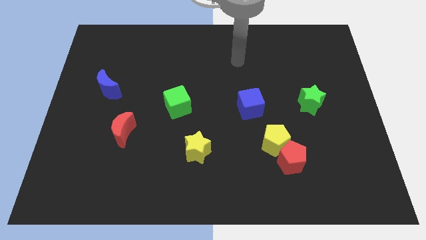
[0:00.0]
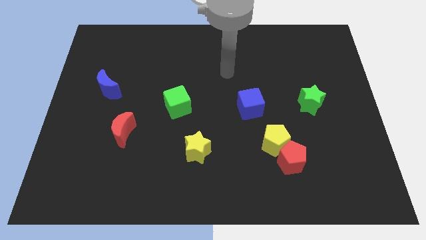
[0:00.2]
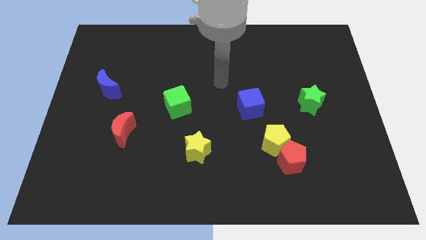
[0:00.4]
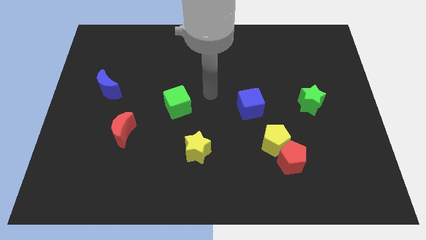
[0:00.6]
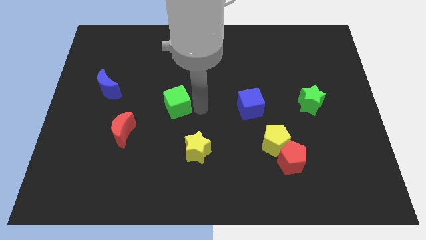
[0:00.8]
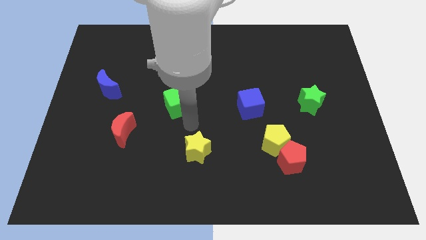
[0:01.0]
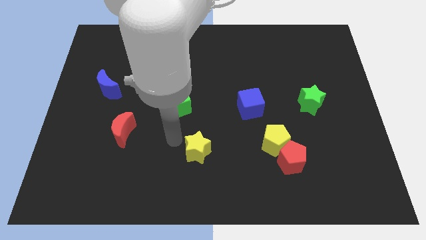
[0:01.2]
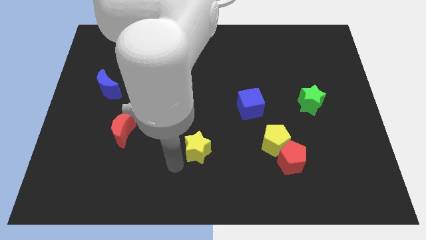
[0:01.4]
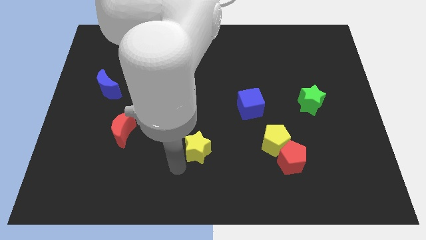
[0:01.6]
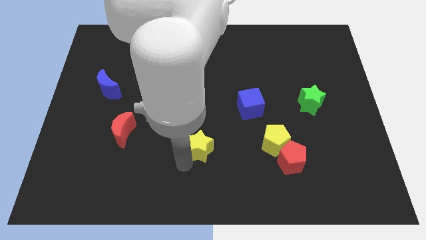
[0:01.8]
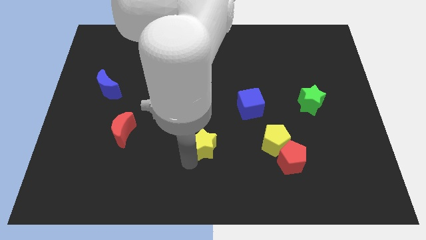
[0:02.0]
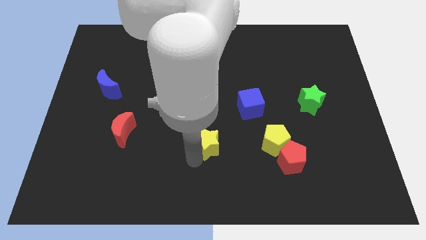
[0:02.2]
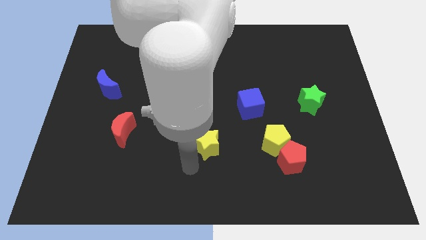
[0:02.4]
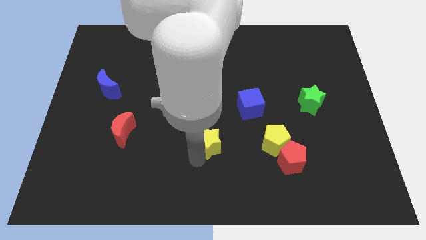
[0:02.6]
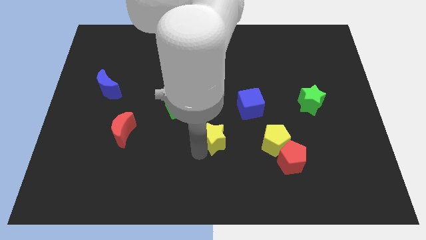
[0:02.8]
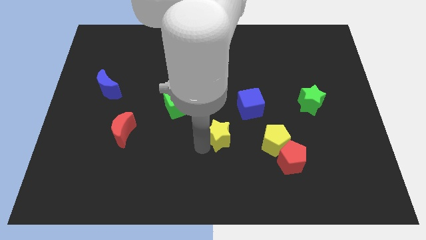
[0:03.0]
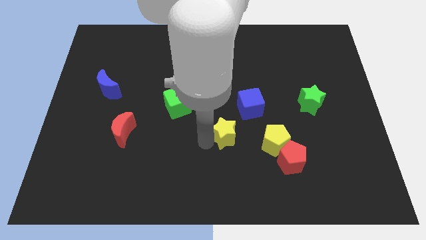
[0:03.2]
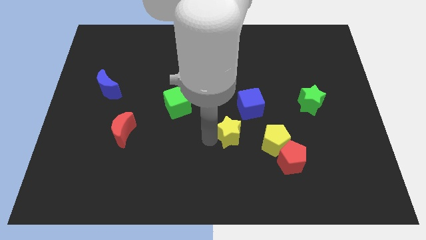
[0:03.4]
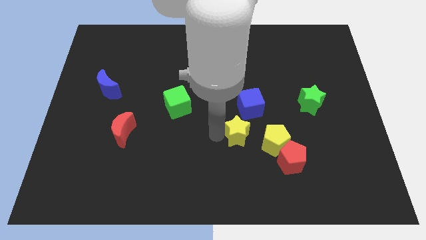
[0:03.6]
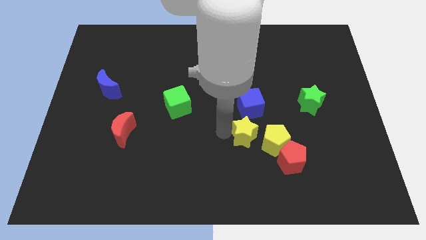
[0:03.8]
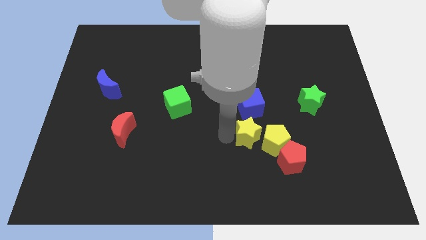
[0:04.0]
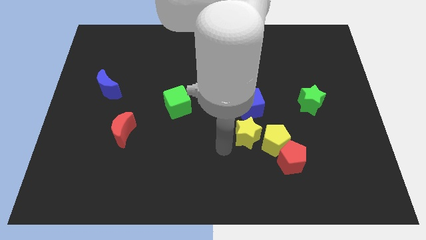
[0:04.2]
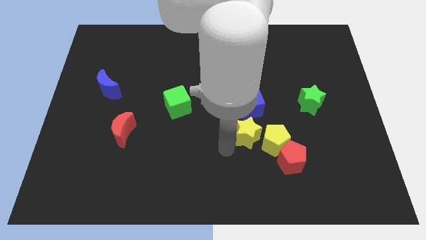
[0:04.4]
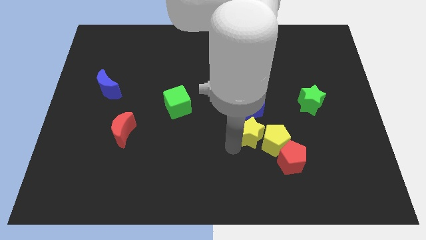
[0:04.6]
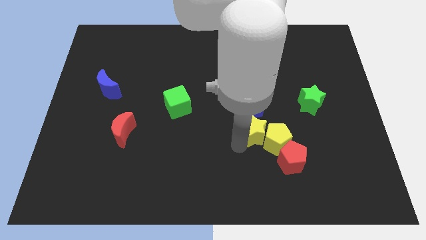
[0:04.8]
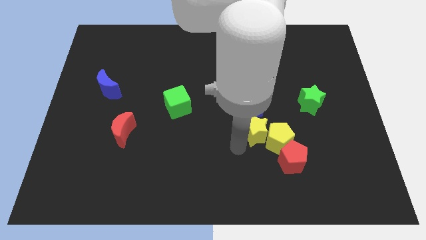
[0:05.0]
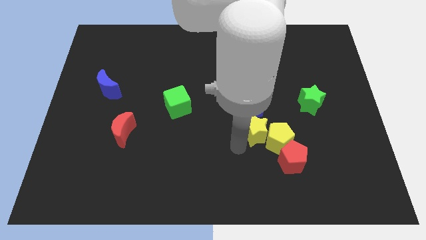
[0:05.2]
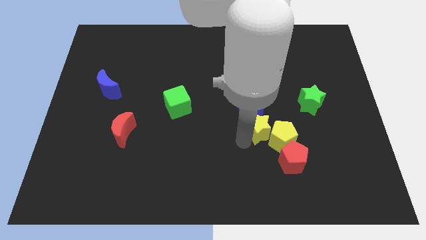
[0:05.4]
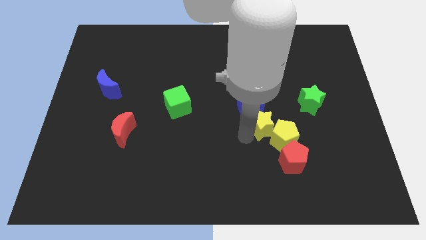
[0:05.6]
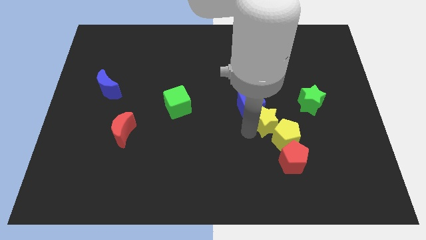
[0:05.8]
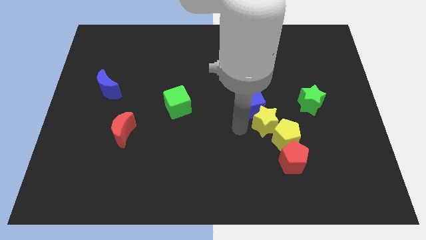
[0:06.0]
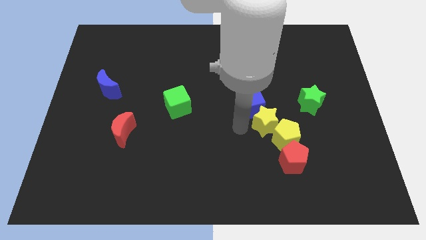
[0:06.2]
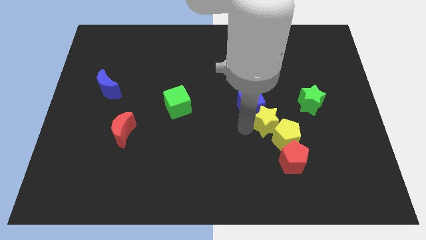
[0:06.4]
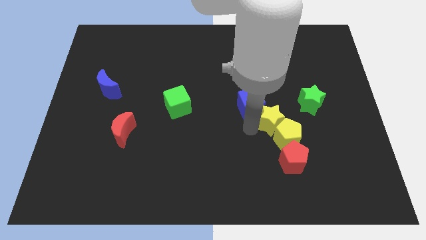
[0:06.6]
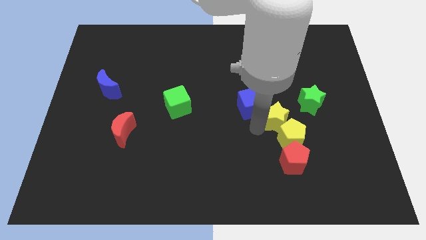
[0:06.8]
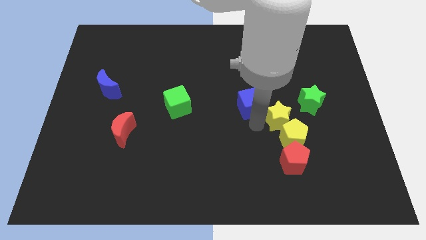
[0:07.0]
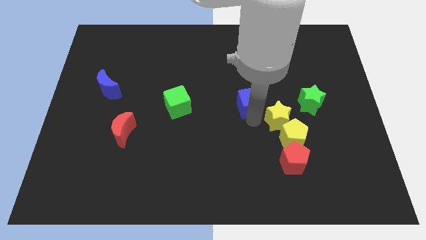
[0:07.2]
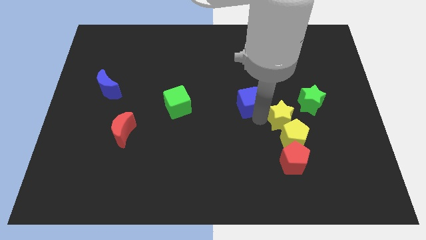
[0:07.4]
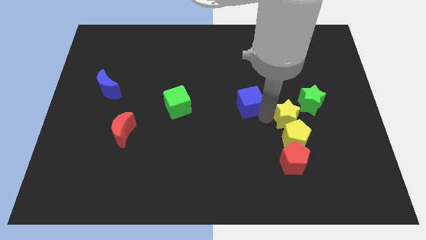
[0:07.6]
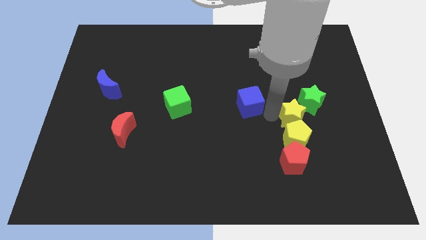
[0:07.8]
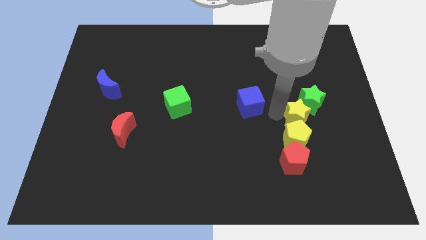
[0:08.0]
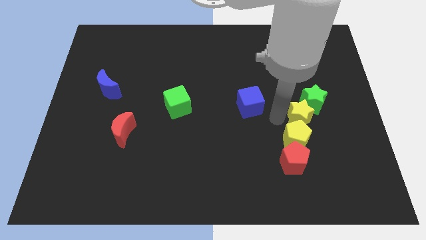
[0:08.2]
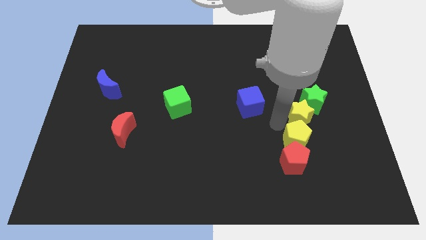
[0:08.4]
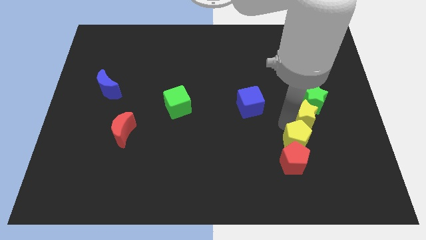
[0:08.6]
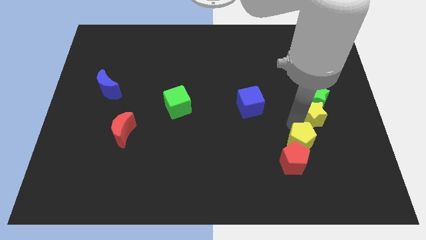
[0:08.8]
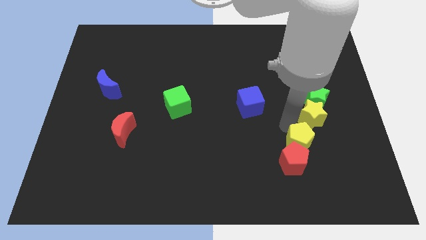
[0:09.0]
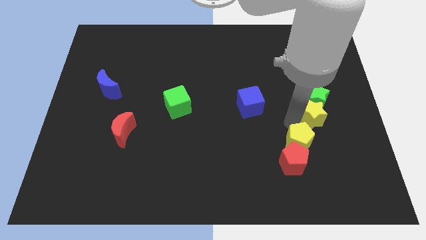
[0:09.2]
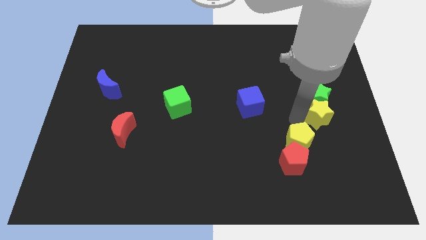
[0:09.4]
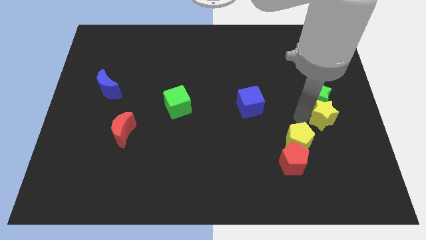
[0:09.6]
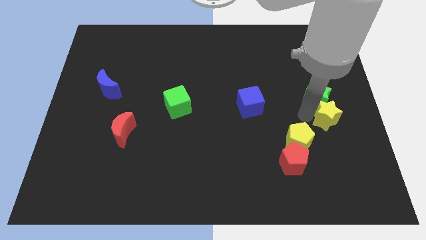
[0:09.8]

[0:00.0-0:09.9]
put the yellow star to the center right

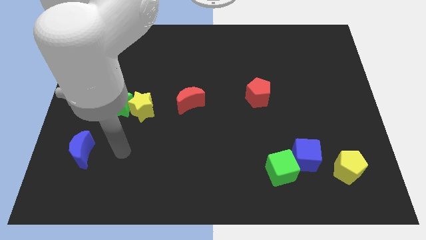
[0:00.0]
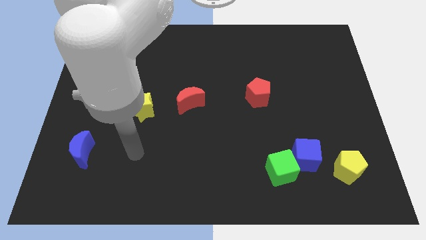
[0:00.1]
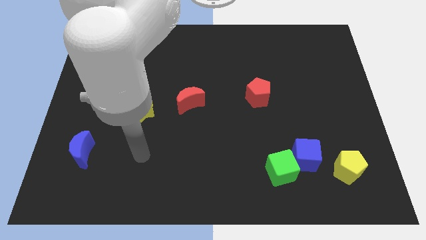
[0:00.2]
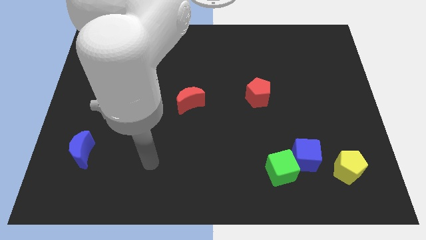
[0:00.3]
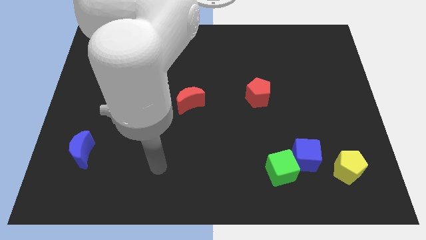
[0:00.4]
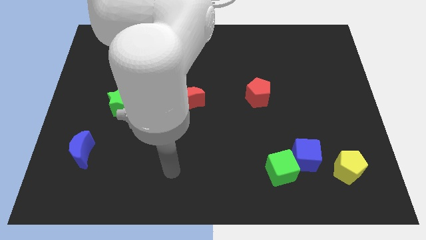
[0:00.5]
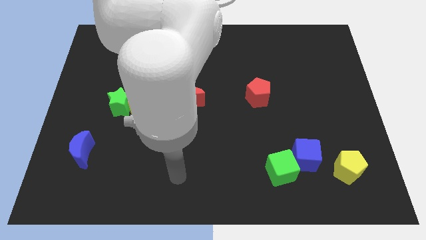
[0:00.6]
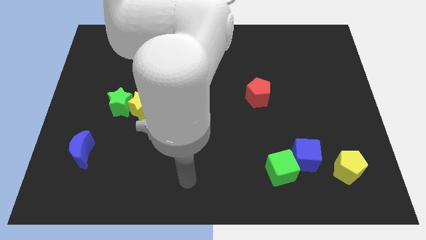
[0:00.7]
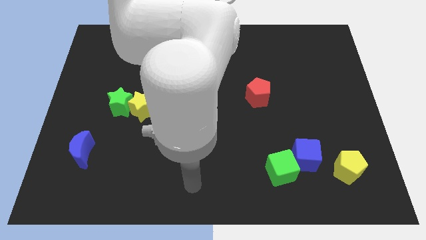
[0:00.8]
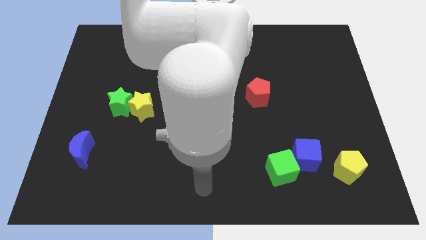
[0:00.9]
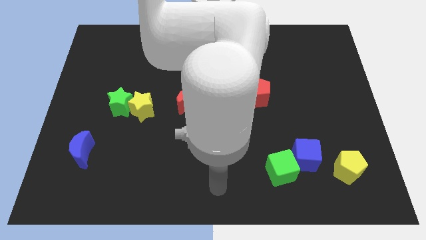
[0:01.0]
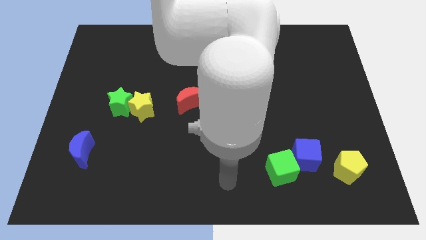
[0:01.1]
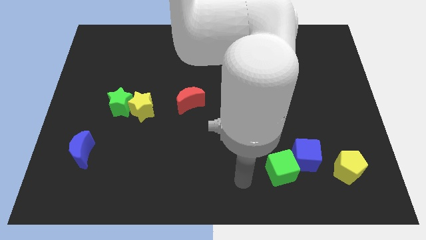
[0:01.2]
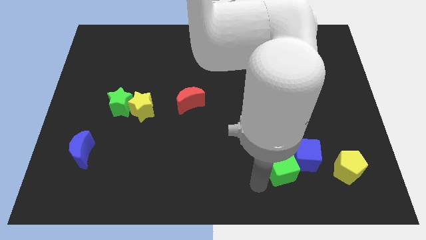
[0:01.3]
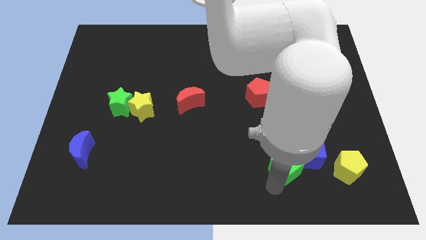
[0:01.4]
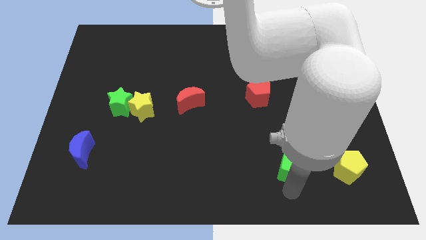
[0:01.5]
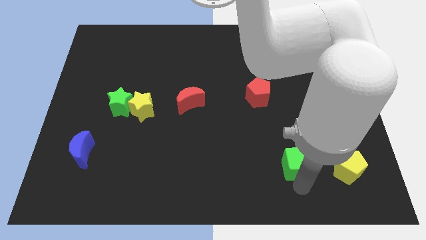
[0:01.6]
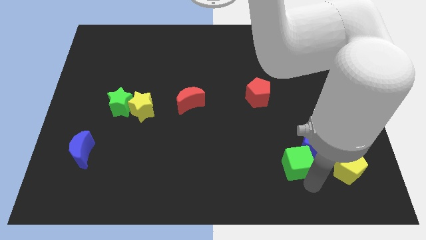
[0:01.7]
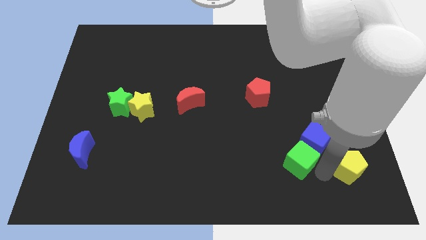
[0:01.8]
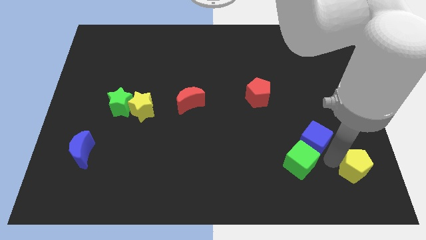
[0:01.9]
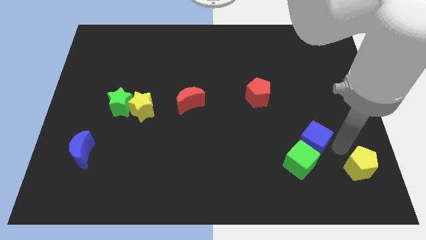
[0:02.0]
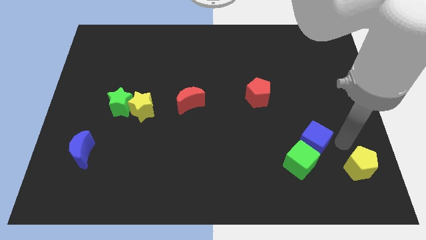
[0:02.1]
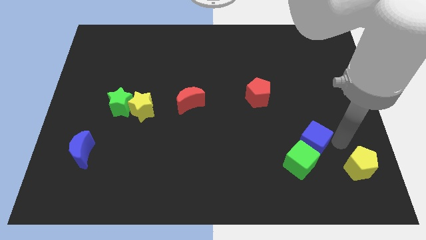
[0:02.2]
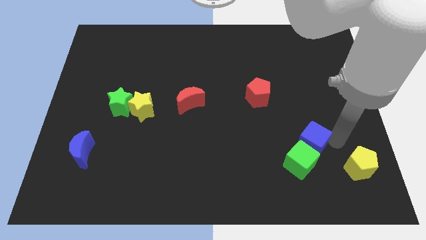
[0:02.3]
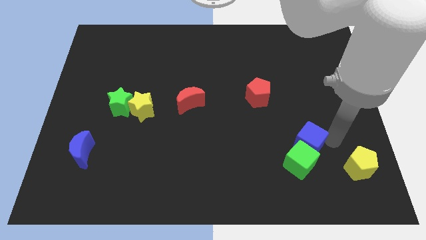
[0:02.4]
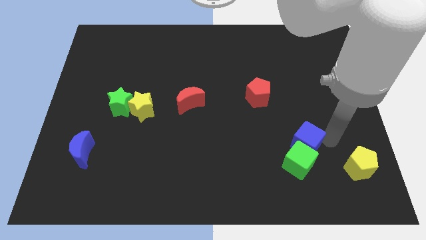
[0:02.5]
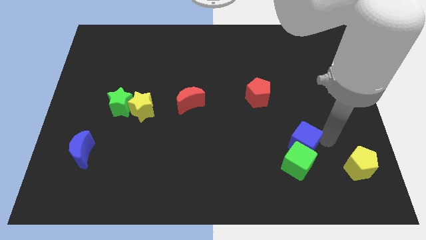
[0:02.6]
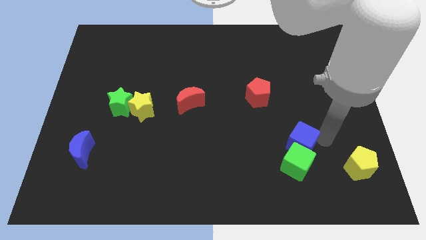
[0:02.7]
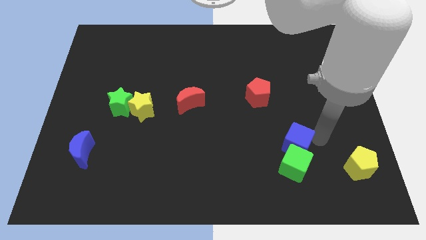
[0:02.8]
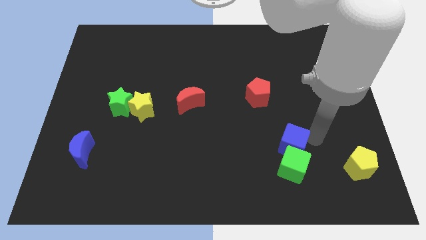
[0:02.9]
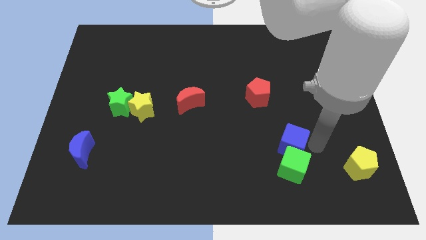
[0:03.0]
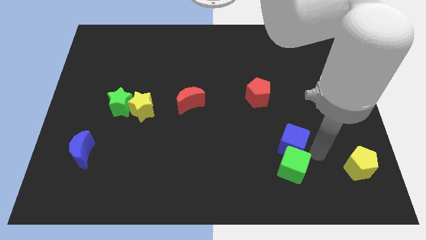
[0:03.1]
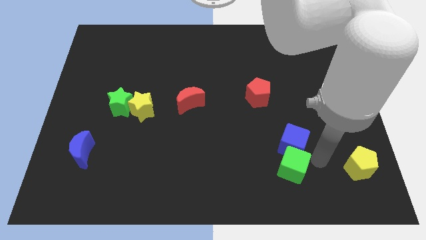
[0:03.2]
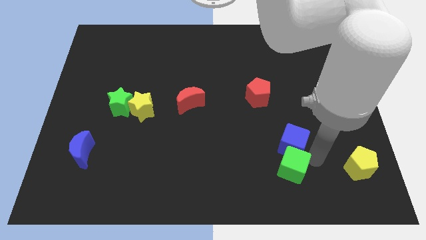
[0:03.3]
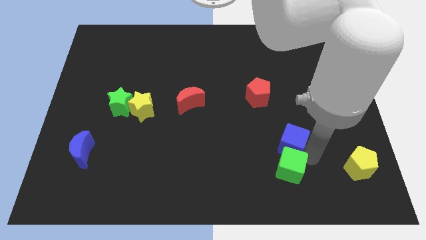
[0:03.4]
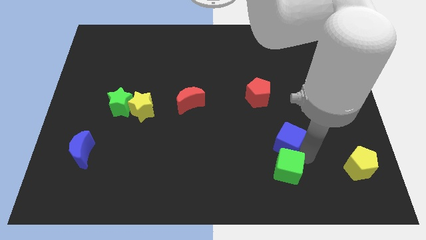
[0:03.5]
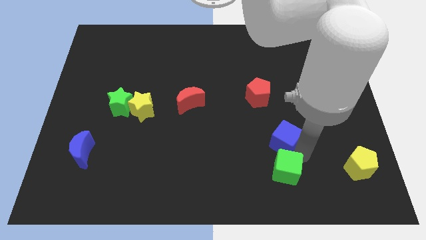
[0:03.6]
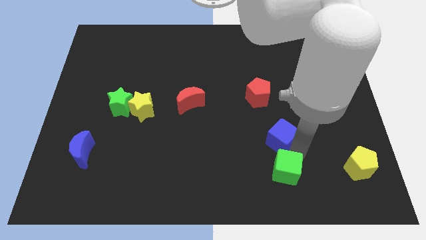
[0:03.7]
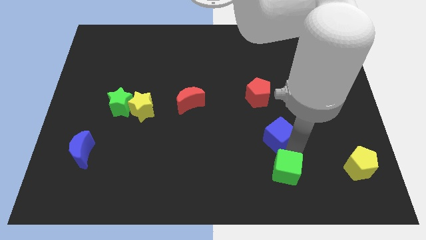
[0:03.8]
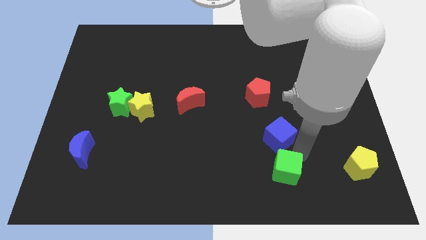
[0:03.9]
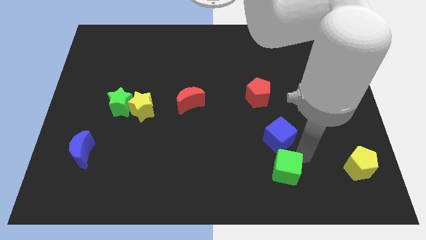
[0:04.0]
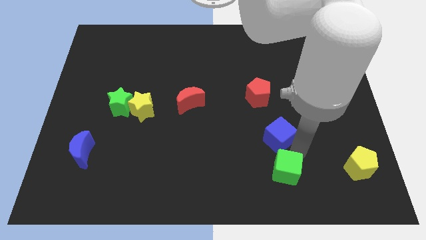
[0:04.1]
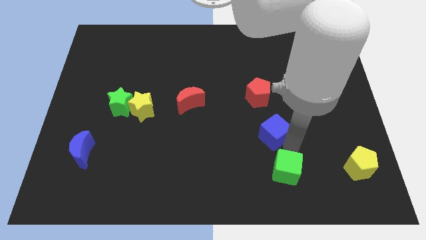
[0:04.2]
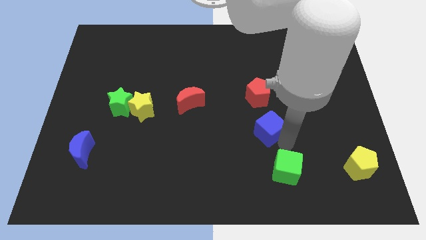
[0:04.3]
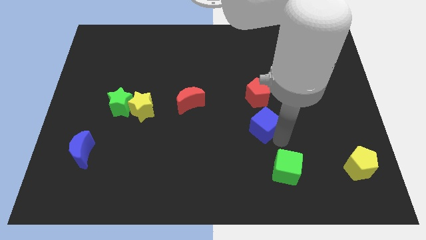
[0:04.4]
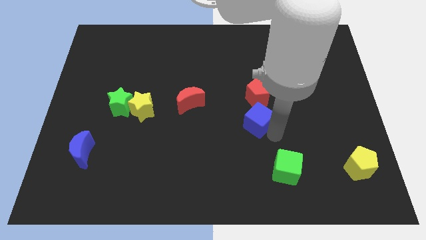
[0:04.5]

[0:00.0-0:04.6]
push the blue cube to the middle of the board
